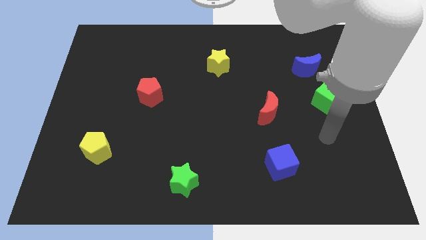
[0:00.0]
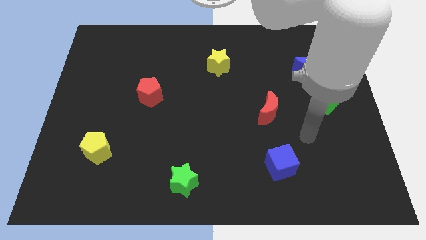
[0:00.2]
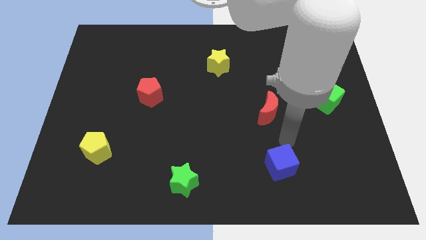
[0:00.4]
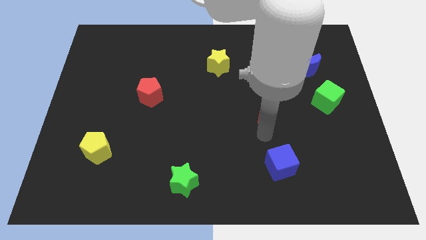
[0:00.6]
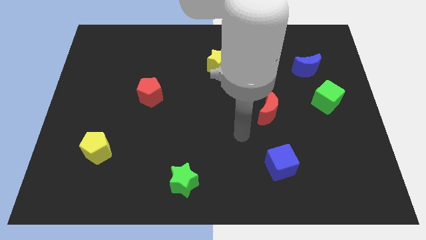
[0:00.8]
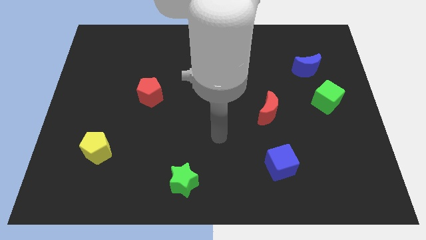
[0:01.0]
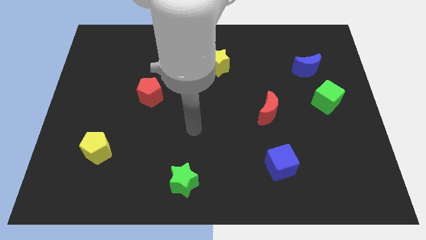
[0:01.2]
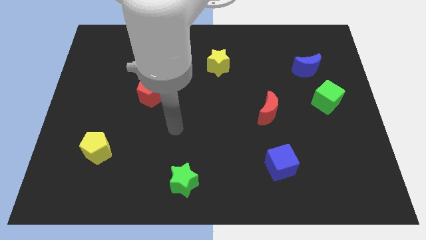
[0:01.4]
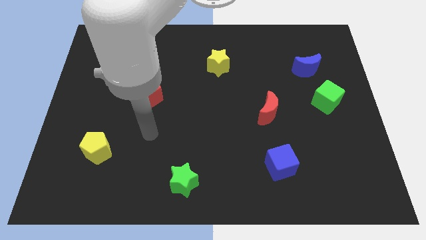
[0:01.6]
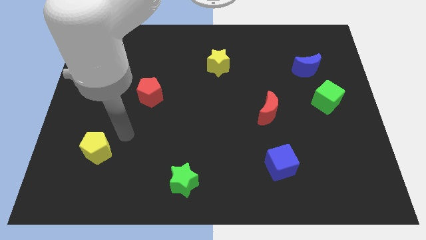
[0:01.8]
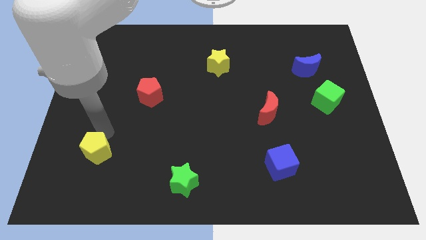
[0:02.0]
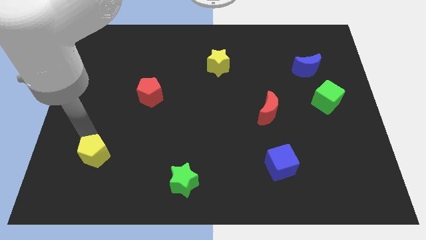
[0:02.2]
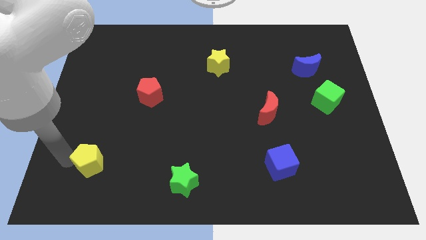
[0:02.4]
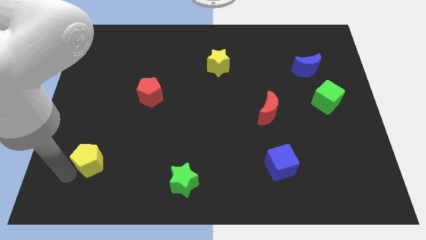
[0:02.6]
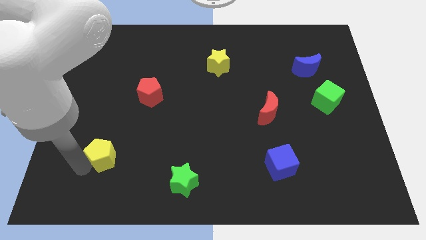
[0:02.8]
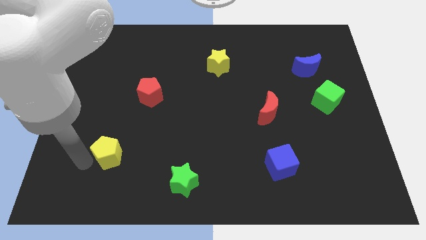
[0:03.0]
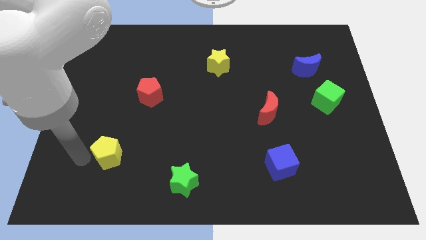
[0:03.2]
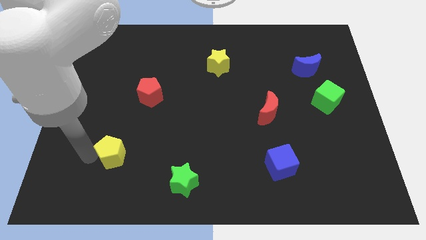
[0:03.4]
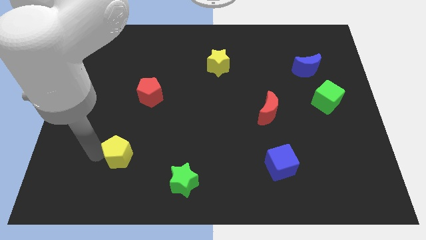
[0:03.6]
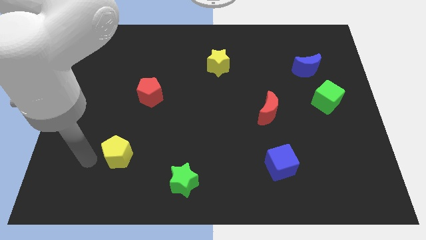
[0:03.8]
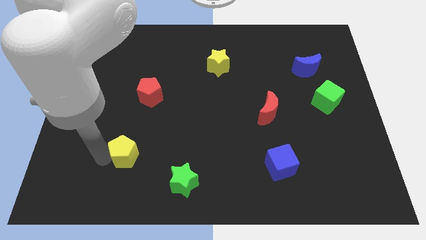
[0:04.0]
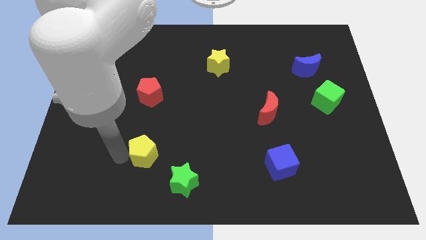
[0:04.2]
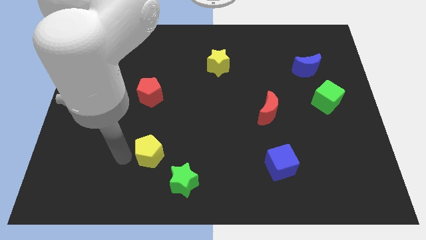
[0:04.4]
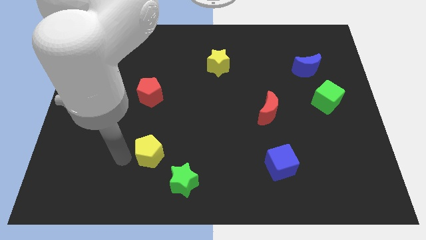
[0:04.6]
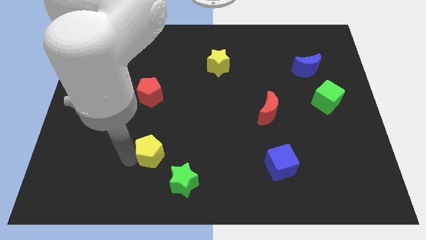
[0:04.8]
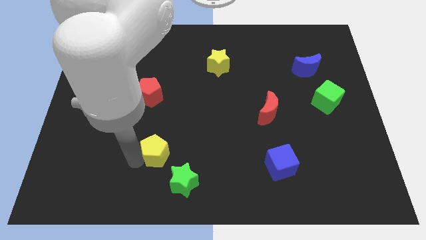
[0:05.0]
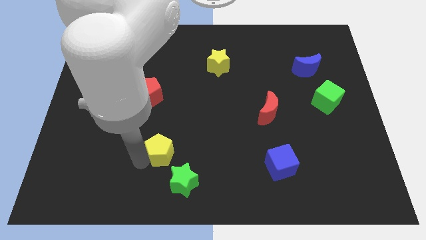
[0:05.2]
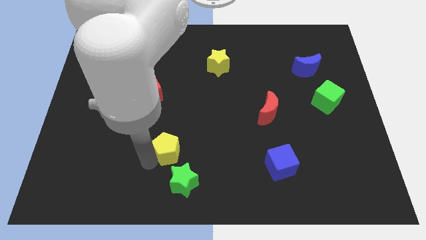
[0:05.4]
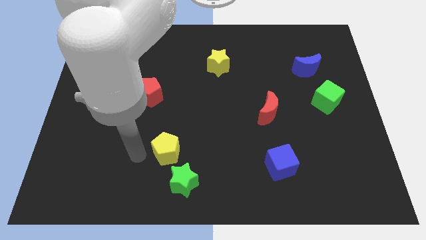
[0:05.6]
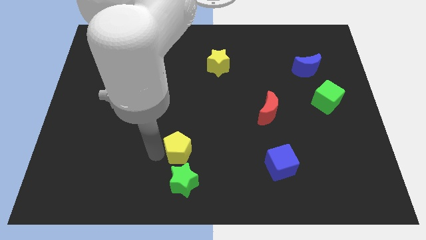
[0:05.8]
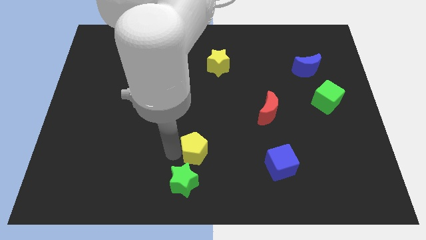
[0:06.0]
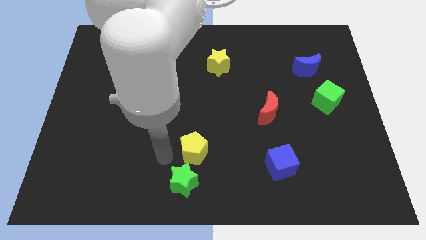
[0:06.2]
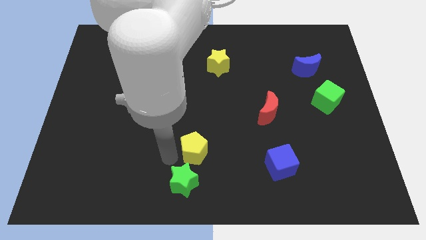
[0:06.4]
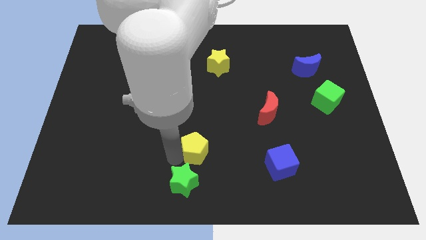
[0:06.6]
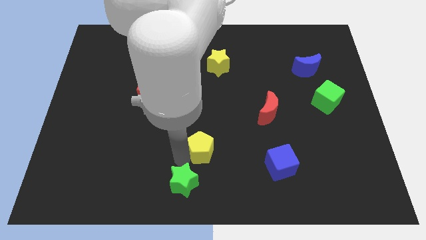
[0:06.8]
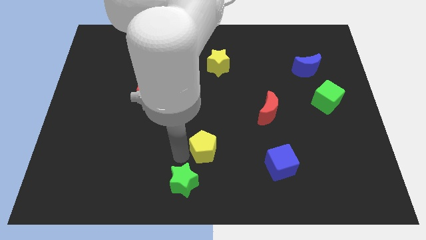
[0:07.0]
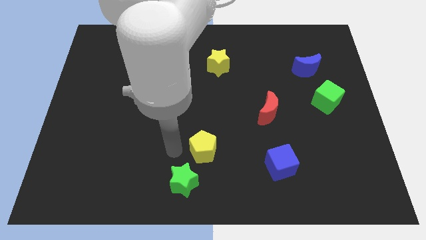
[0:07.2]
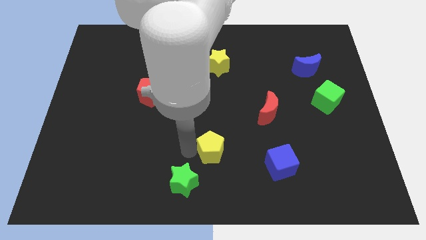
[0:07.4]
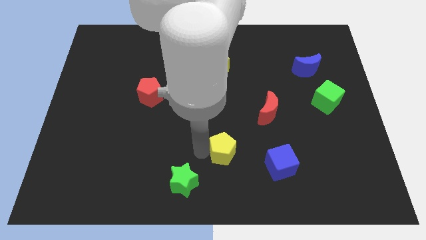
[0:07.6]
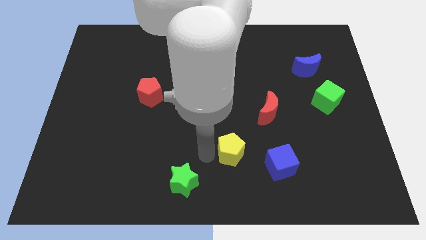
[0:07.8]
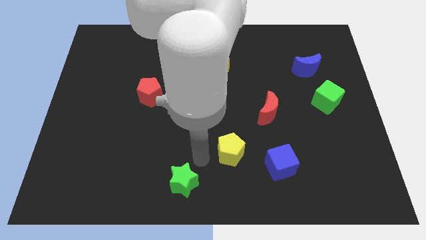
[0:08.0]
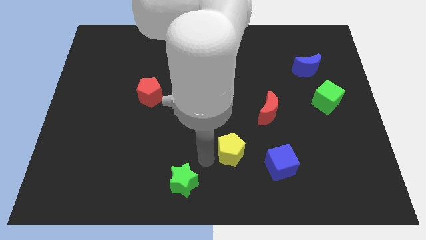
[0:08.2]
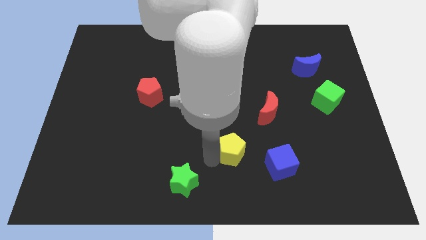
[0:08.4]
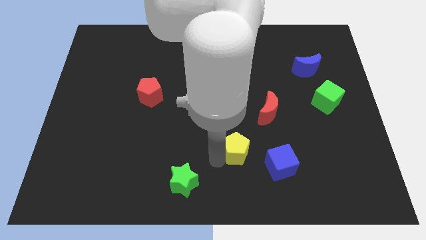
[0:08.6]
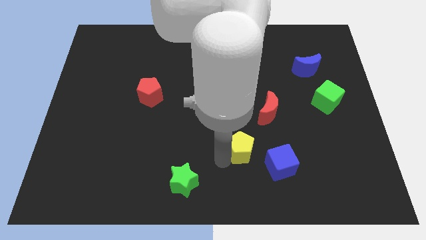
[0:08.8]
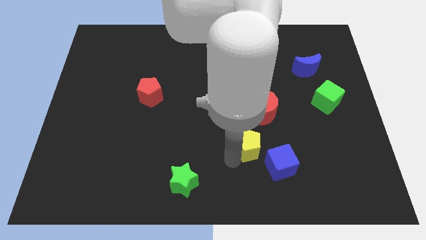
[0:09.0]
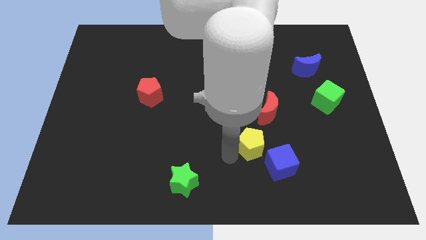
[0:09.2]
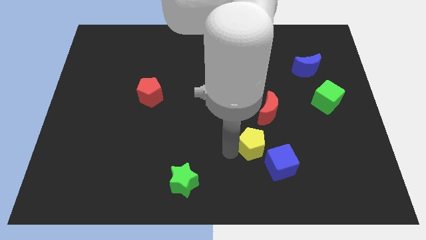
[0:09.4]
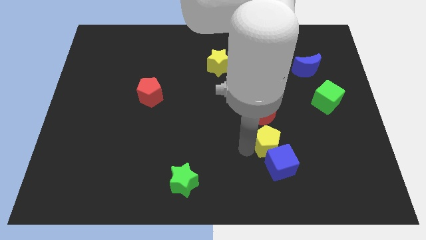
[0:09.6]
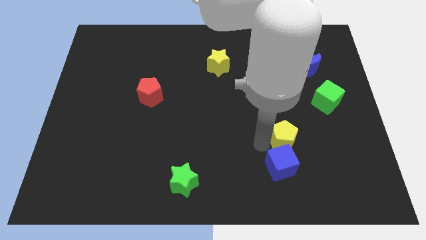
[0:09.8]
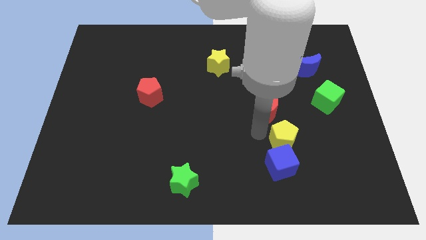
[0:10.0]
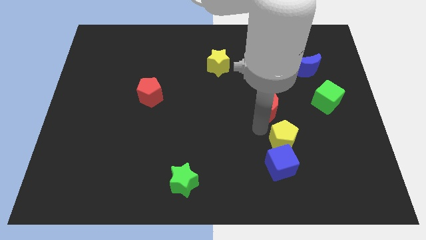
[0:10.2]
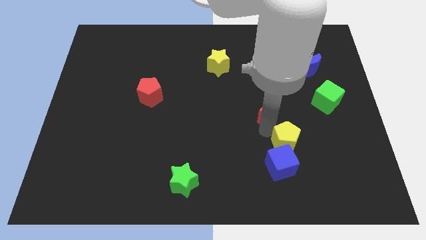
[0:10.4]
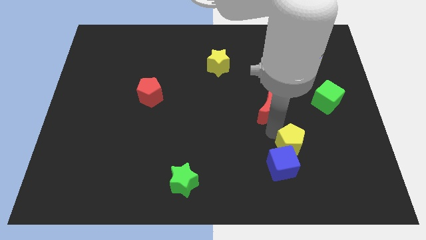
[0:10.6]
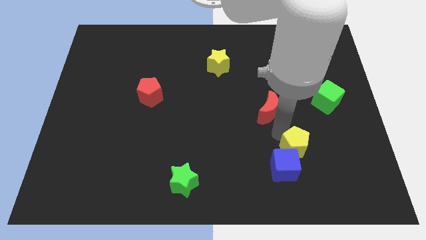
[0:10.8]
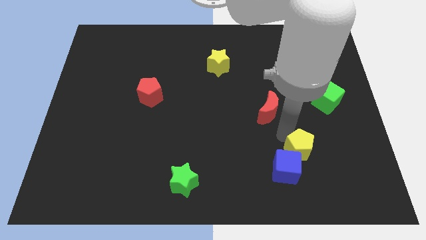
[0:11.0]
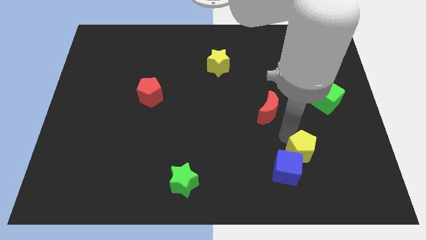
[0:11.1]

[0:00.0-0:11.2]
push the yellow pentagon to the right of the blue cube

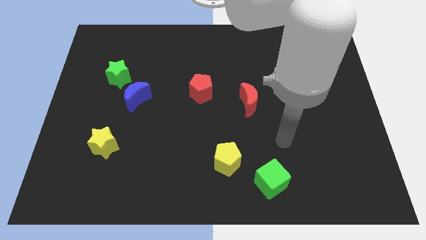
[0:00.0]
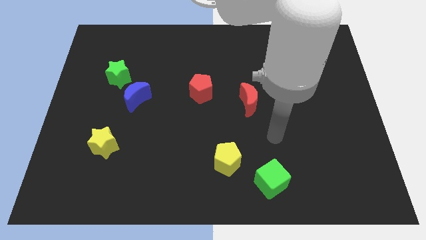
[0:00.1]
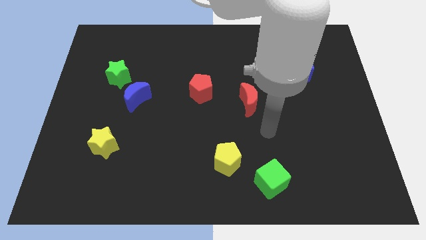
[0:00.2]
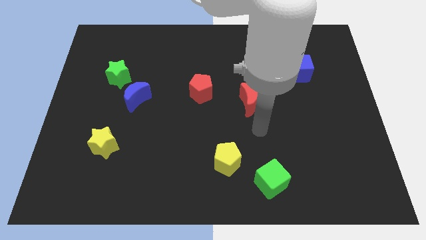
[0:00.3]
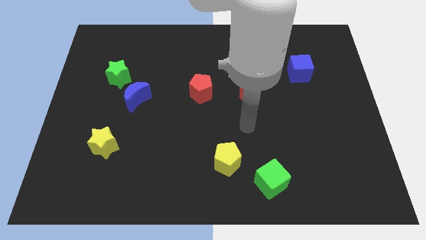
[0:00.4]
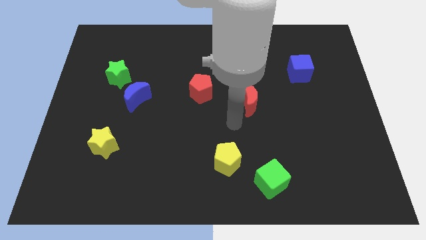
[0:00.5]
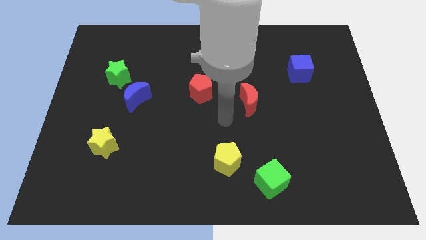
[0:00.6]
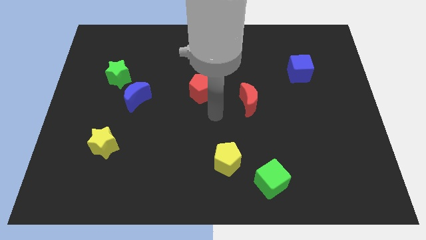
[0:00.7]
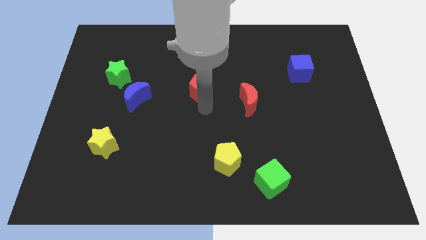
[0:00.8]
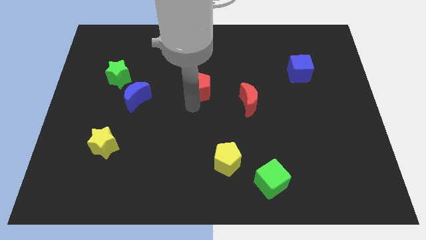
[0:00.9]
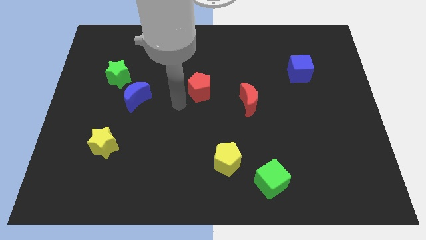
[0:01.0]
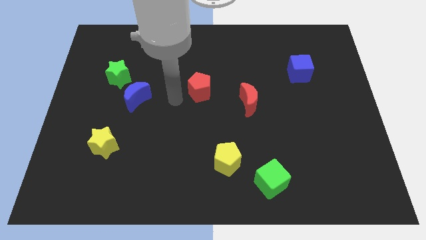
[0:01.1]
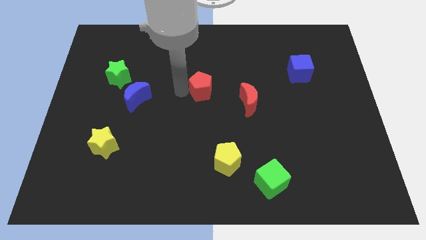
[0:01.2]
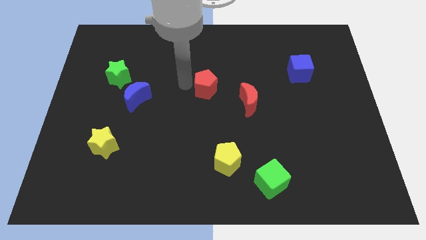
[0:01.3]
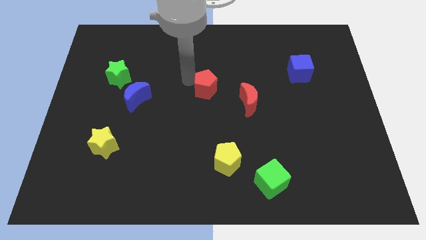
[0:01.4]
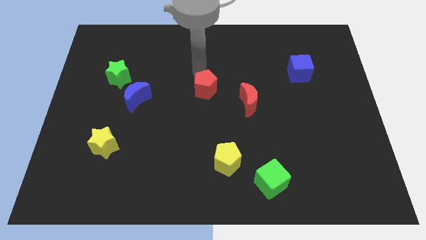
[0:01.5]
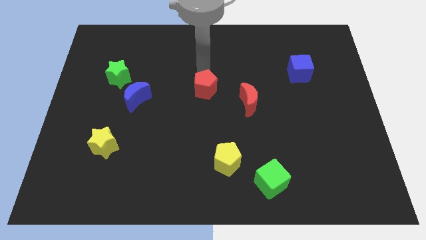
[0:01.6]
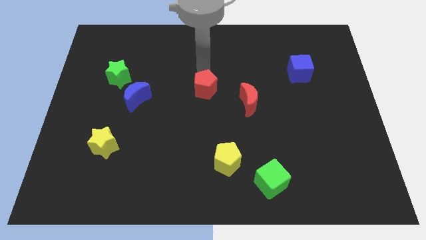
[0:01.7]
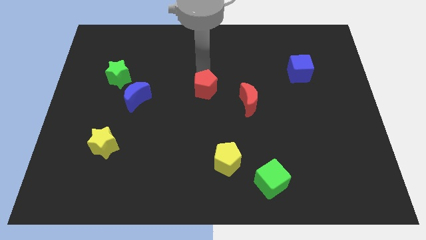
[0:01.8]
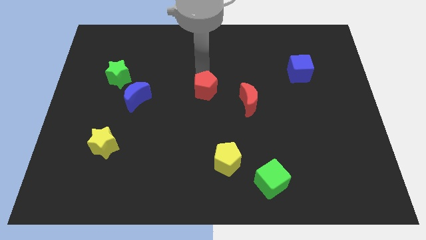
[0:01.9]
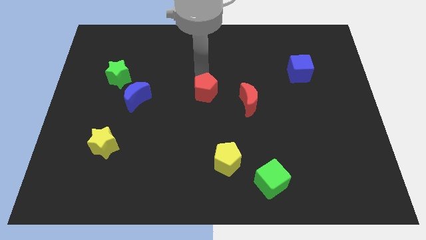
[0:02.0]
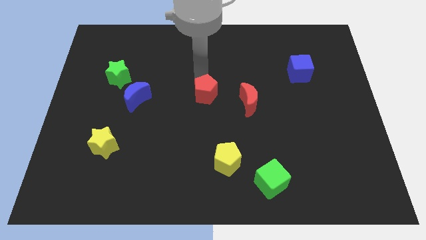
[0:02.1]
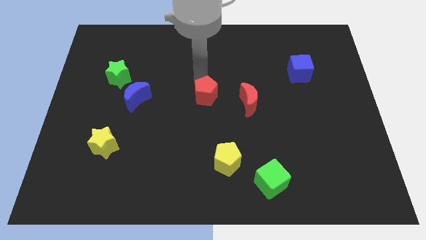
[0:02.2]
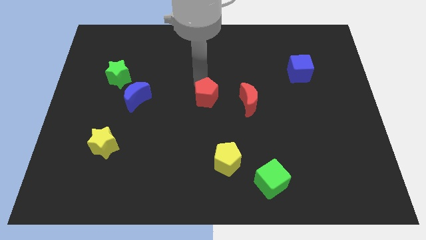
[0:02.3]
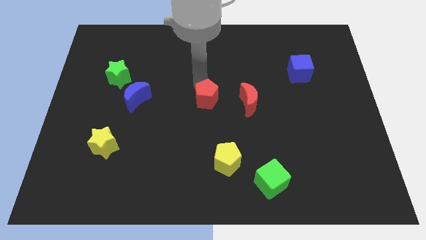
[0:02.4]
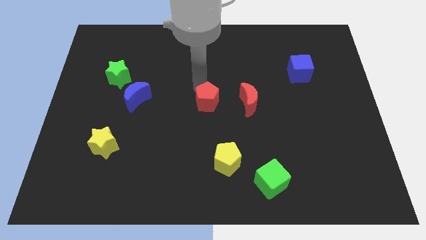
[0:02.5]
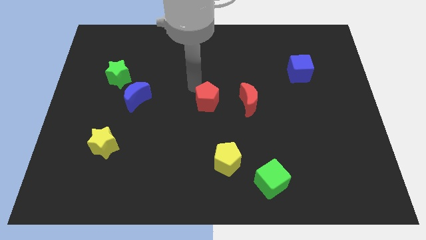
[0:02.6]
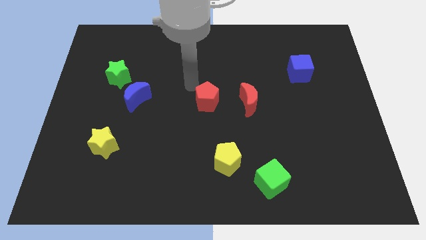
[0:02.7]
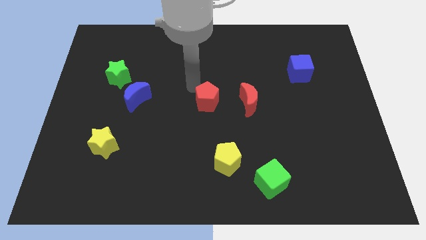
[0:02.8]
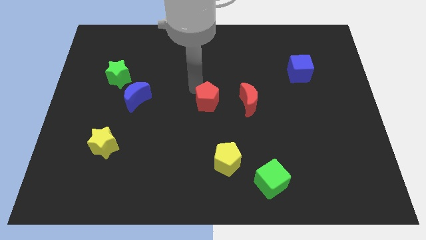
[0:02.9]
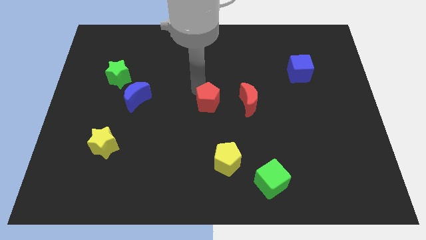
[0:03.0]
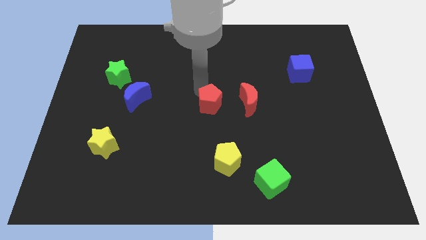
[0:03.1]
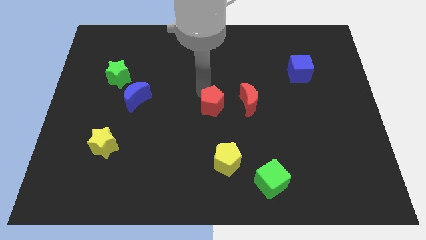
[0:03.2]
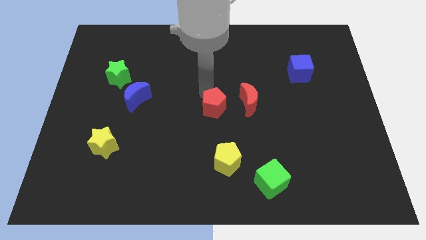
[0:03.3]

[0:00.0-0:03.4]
slide the red pentagon to the bottom left of the red moon
